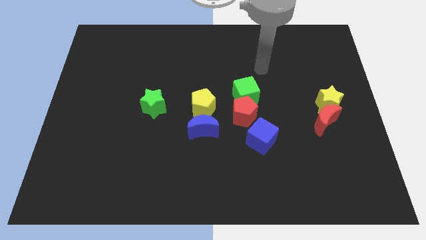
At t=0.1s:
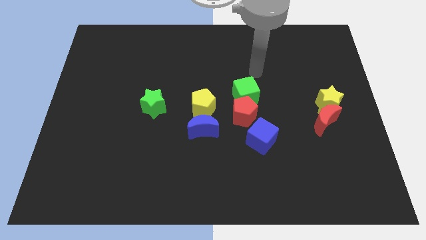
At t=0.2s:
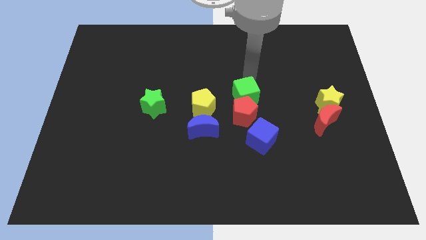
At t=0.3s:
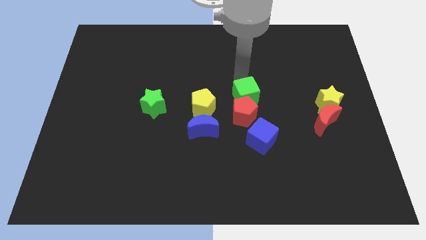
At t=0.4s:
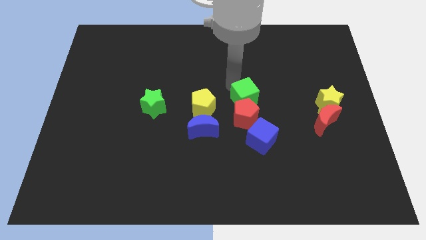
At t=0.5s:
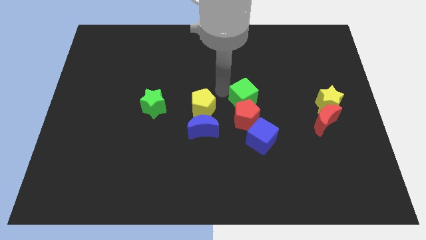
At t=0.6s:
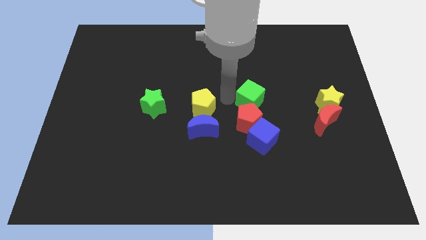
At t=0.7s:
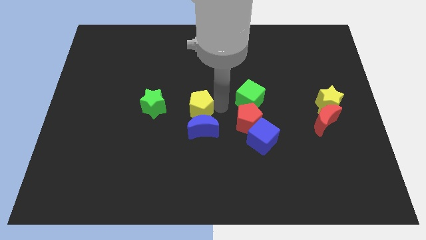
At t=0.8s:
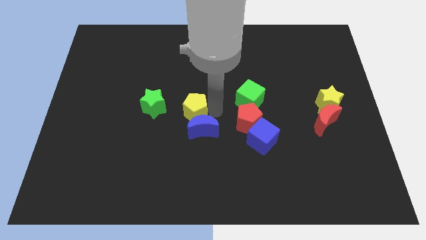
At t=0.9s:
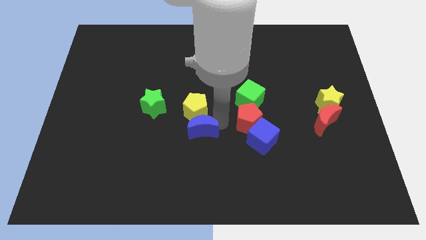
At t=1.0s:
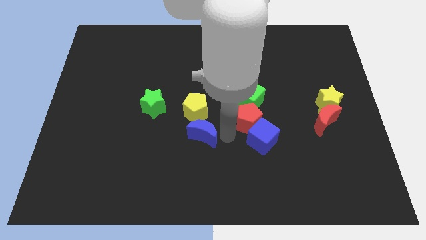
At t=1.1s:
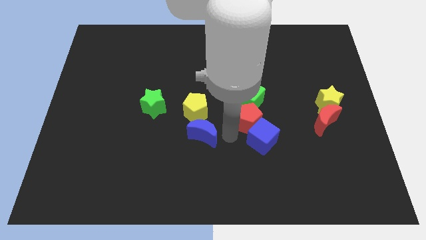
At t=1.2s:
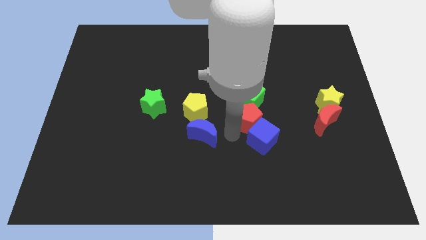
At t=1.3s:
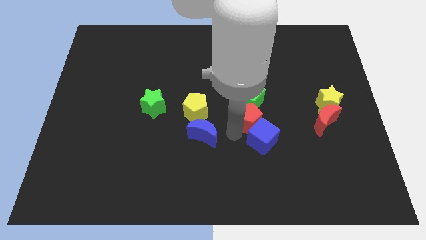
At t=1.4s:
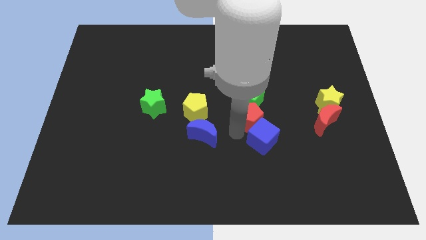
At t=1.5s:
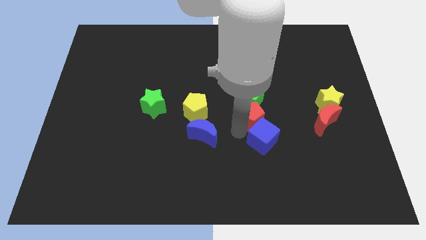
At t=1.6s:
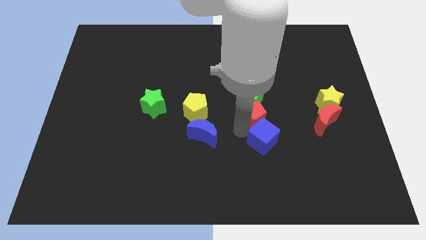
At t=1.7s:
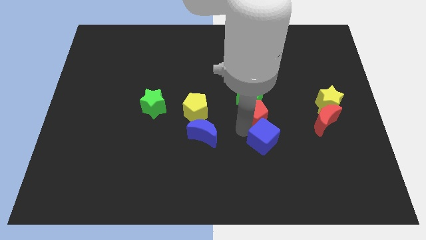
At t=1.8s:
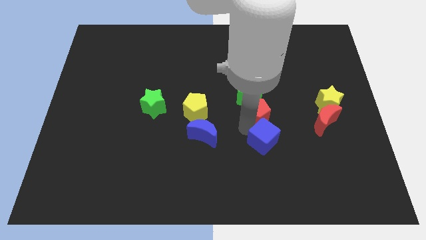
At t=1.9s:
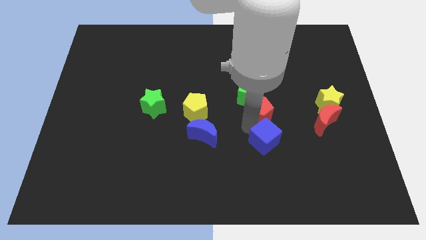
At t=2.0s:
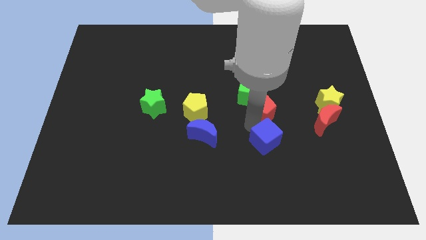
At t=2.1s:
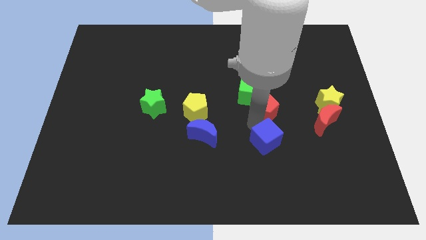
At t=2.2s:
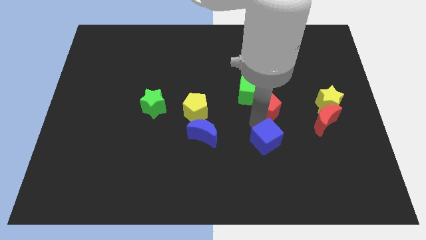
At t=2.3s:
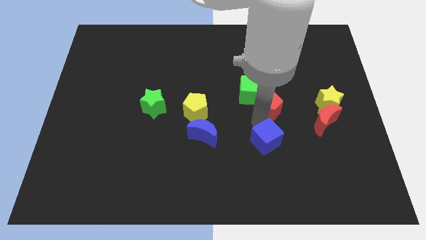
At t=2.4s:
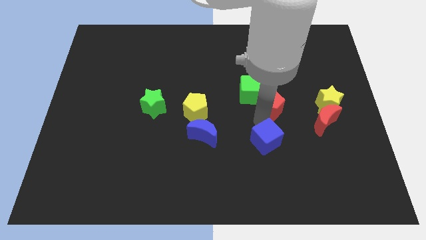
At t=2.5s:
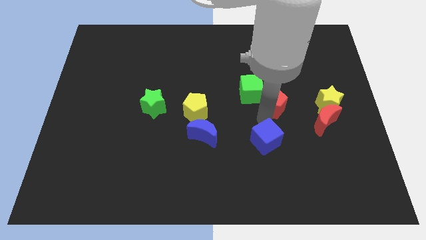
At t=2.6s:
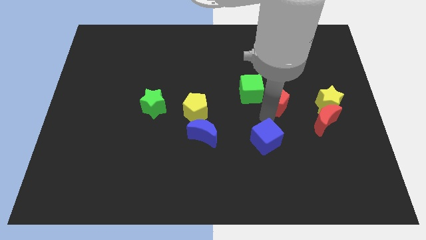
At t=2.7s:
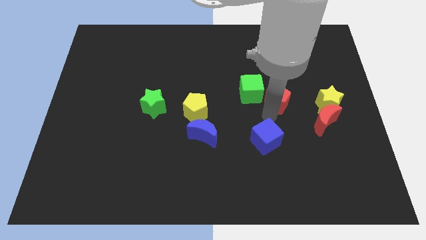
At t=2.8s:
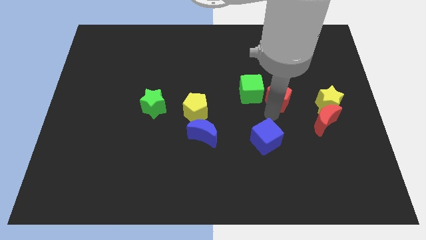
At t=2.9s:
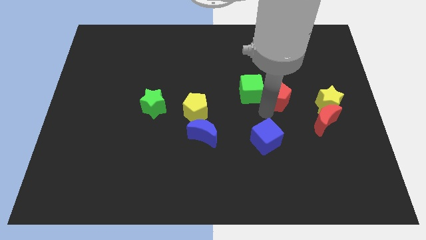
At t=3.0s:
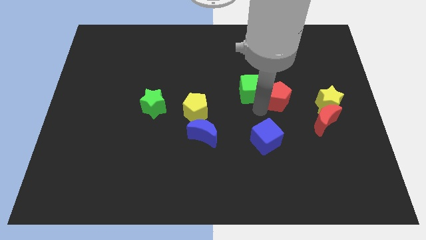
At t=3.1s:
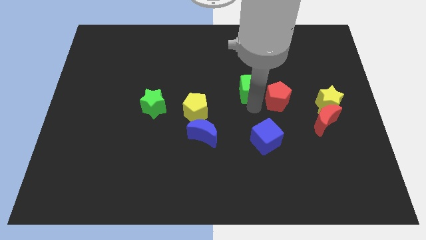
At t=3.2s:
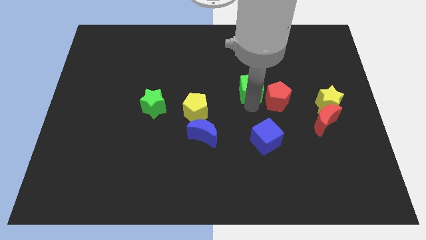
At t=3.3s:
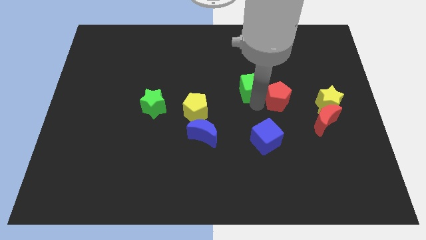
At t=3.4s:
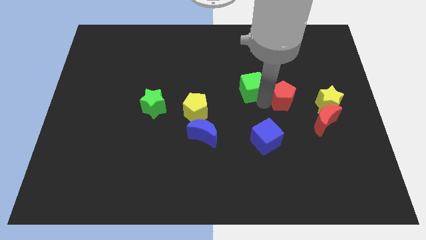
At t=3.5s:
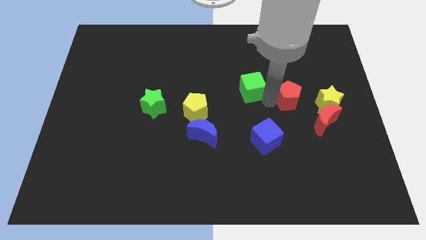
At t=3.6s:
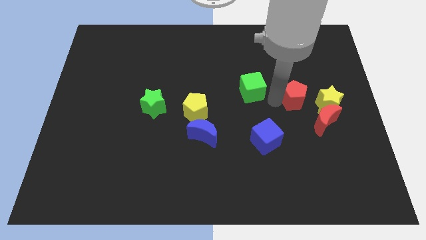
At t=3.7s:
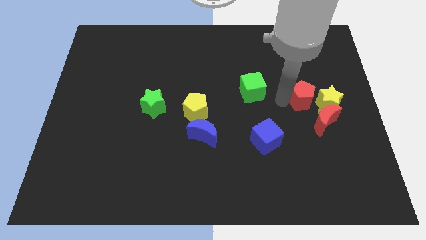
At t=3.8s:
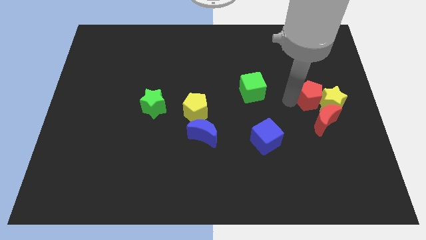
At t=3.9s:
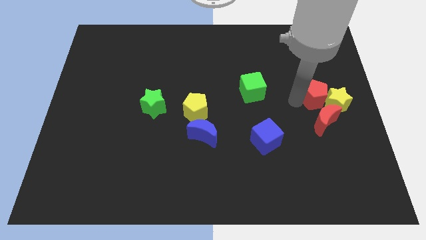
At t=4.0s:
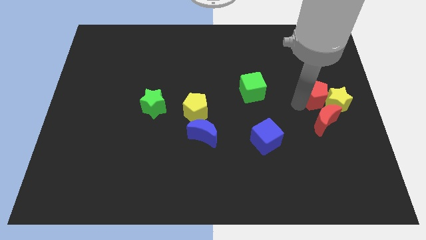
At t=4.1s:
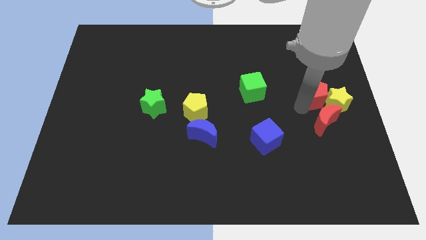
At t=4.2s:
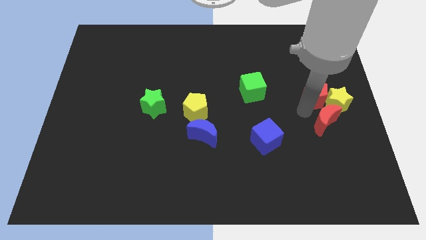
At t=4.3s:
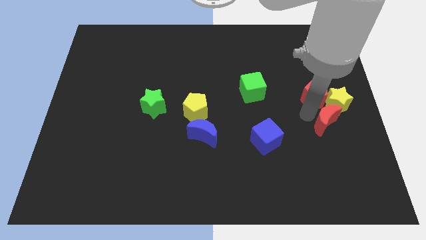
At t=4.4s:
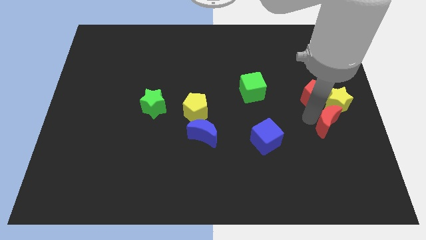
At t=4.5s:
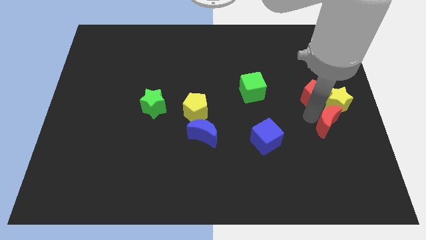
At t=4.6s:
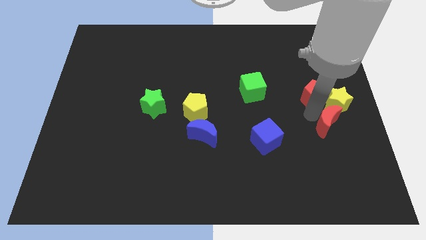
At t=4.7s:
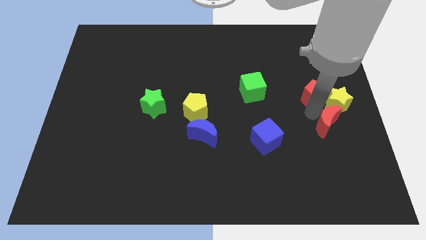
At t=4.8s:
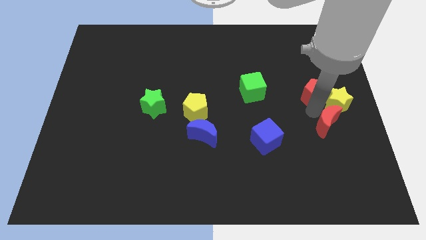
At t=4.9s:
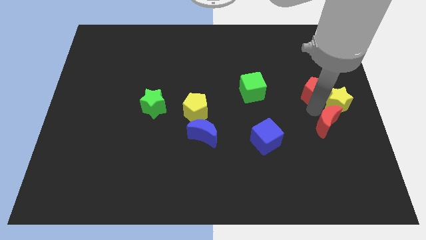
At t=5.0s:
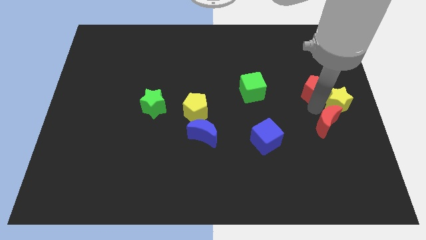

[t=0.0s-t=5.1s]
move the red pentagon to the top of the yellow star

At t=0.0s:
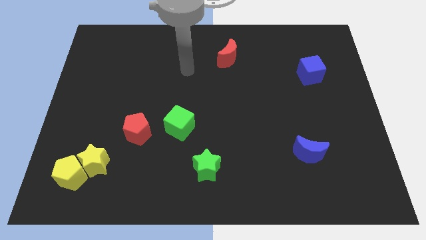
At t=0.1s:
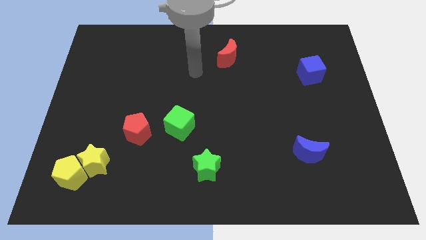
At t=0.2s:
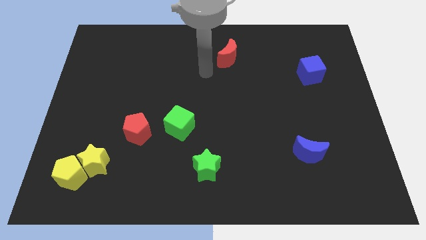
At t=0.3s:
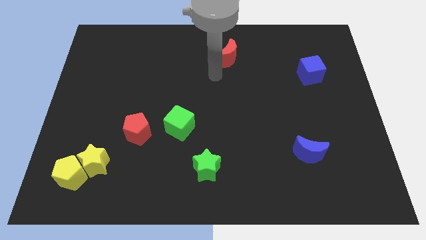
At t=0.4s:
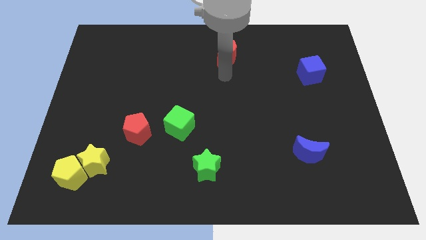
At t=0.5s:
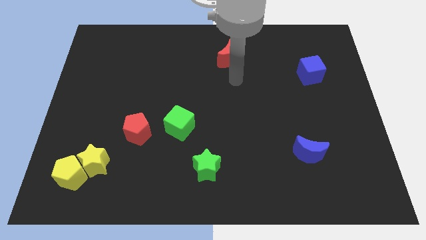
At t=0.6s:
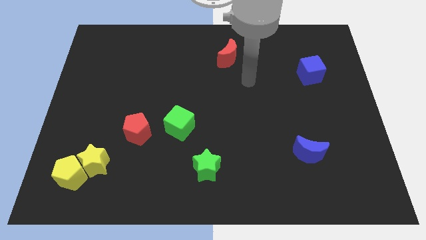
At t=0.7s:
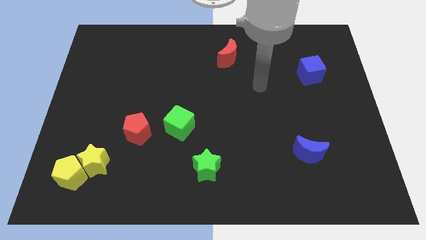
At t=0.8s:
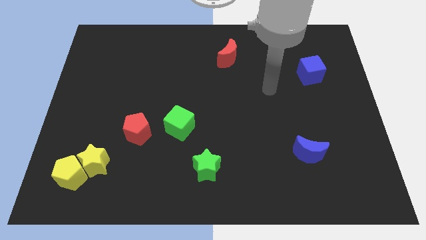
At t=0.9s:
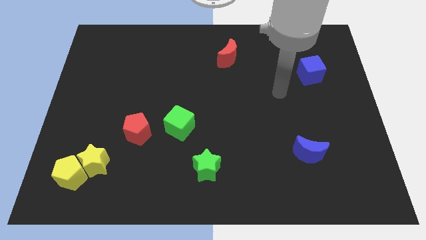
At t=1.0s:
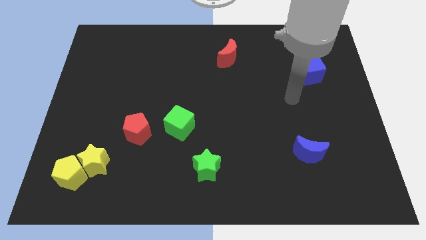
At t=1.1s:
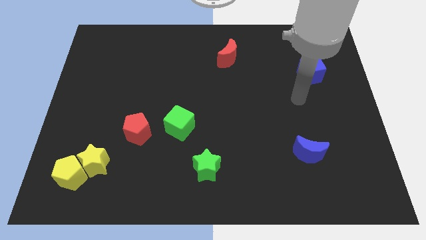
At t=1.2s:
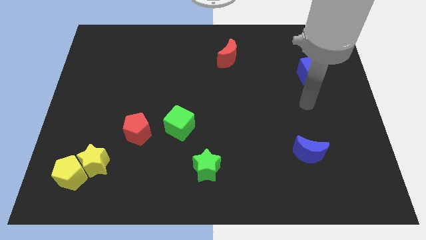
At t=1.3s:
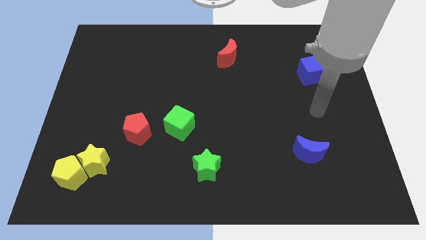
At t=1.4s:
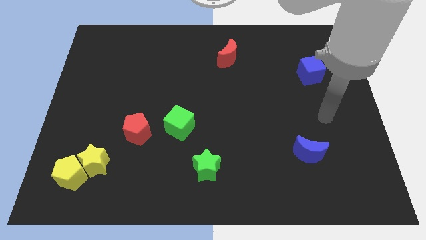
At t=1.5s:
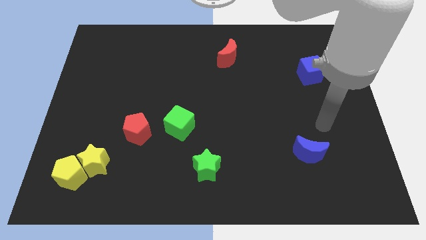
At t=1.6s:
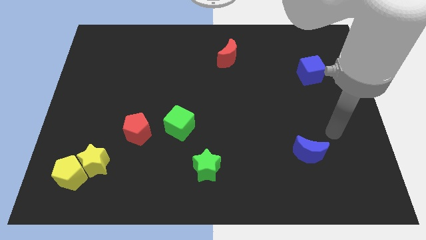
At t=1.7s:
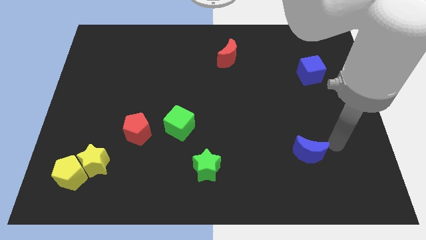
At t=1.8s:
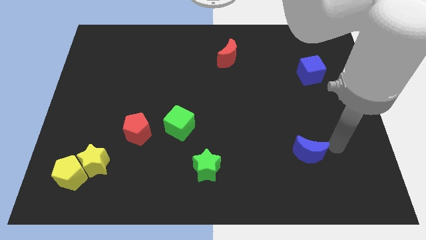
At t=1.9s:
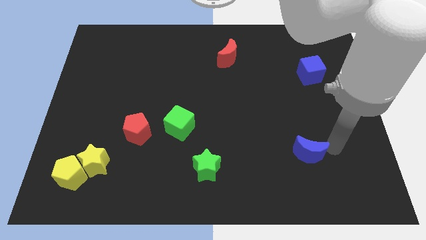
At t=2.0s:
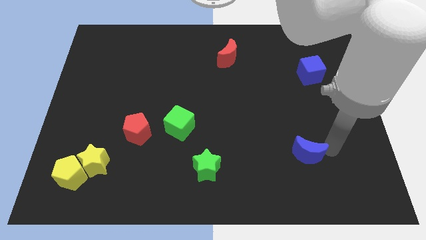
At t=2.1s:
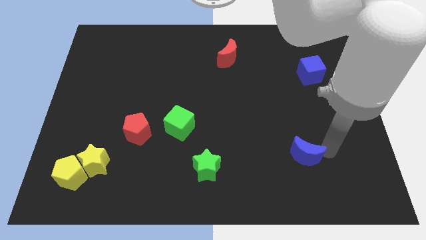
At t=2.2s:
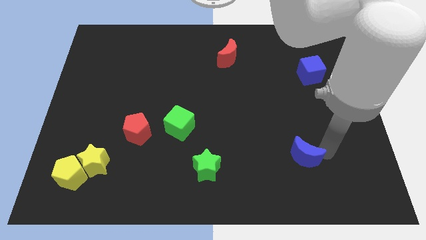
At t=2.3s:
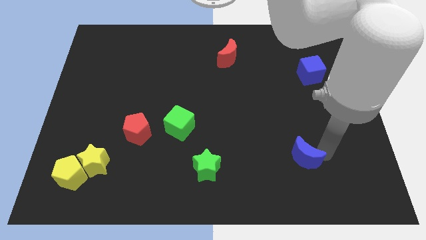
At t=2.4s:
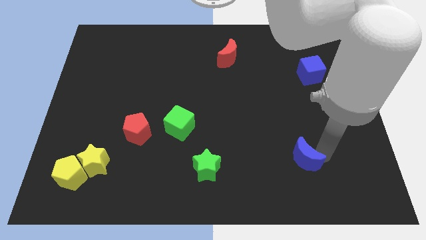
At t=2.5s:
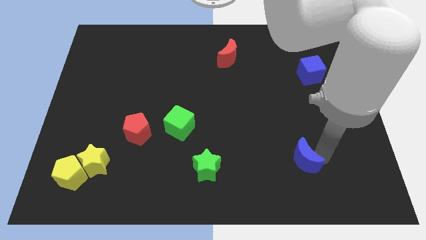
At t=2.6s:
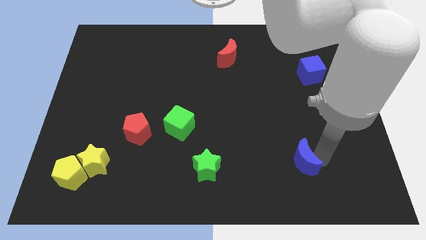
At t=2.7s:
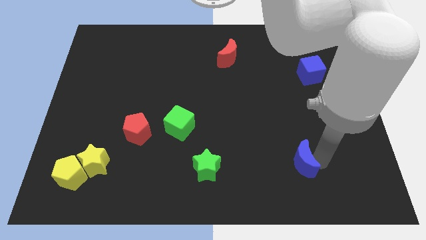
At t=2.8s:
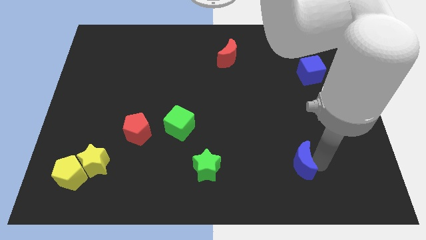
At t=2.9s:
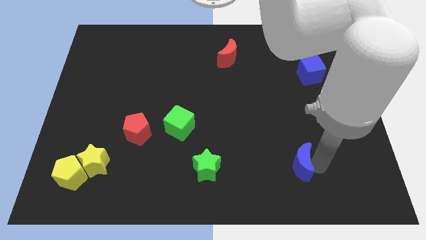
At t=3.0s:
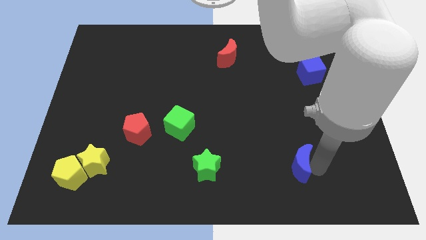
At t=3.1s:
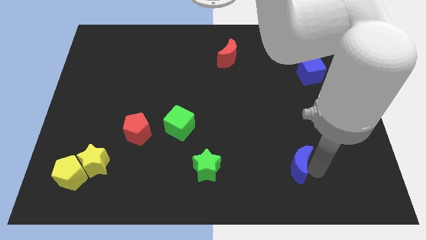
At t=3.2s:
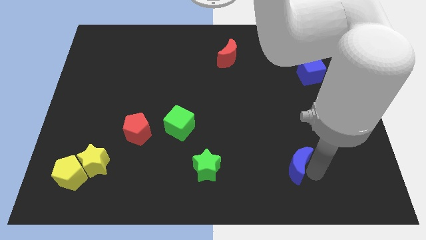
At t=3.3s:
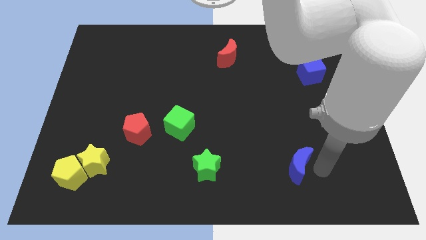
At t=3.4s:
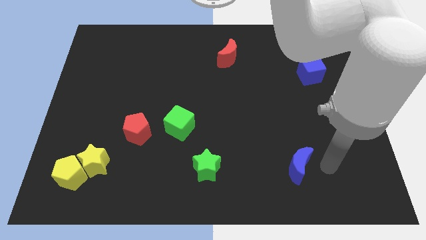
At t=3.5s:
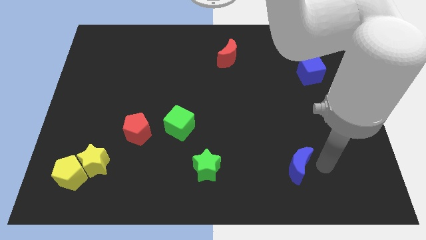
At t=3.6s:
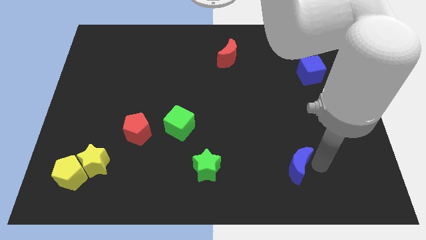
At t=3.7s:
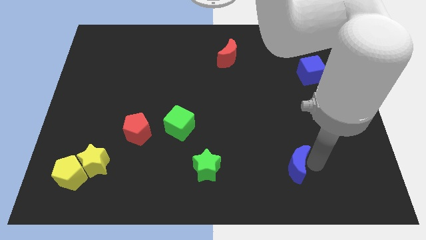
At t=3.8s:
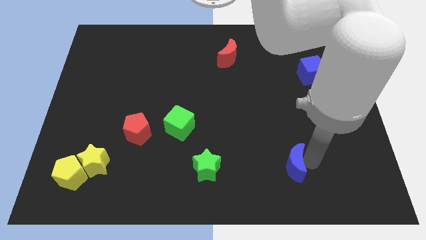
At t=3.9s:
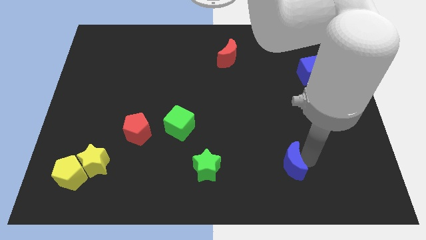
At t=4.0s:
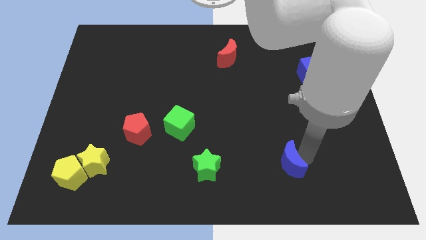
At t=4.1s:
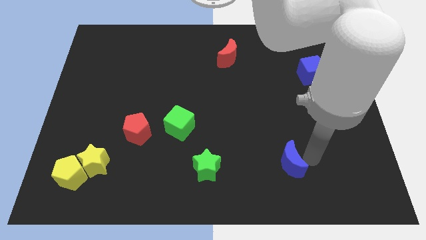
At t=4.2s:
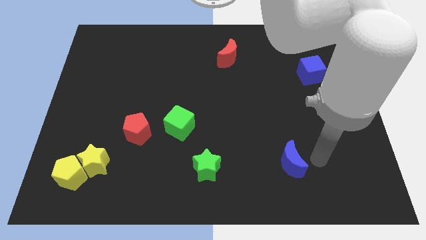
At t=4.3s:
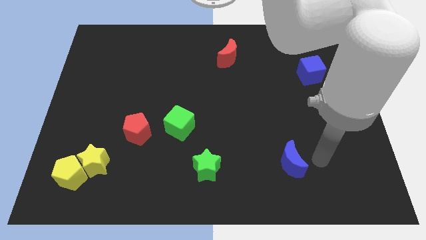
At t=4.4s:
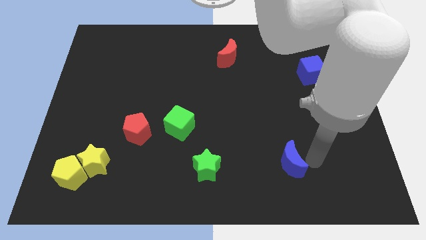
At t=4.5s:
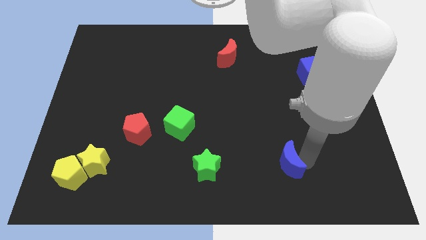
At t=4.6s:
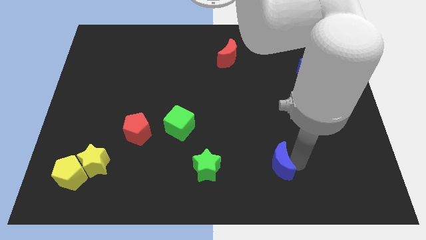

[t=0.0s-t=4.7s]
move the blue moon right of the green star
